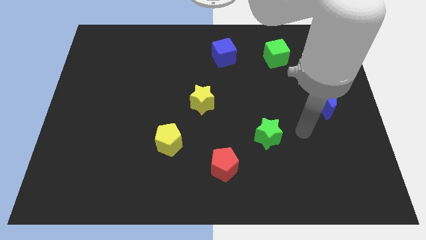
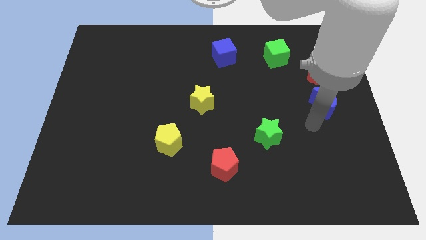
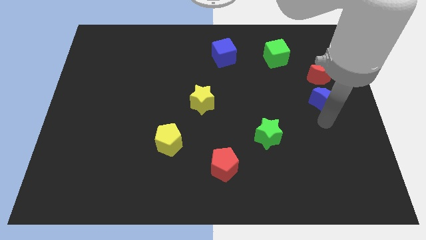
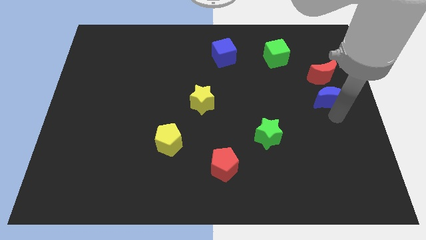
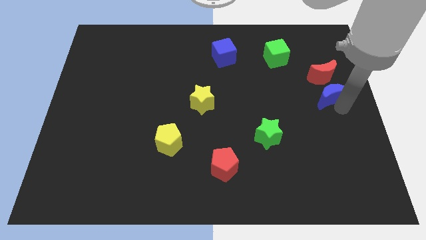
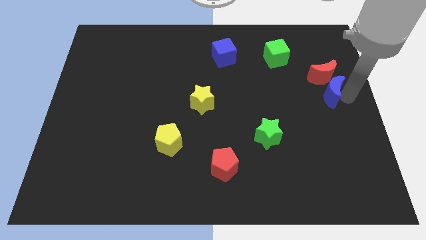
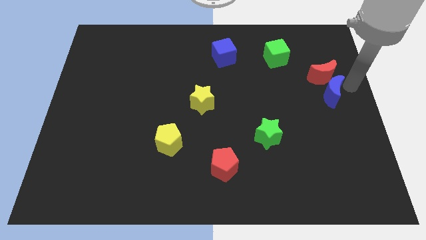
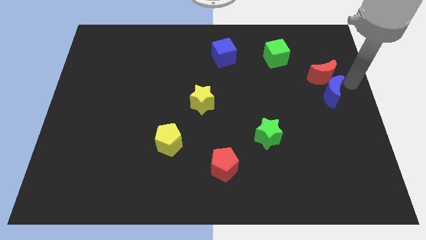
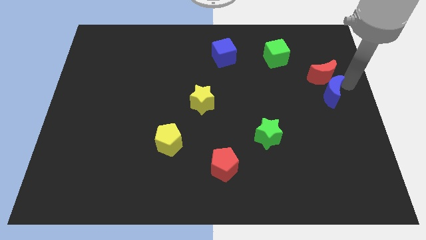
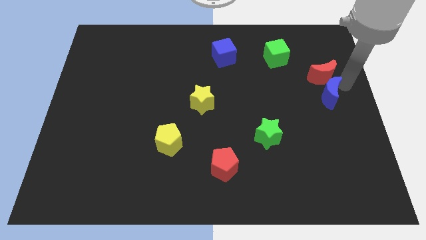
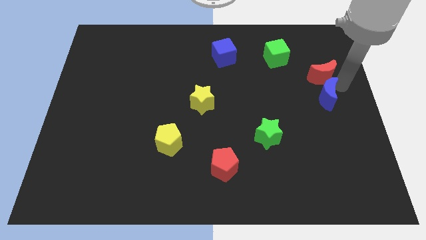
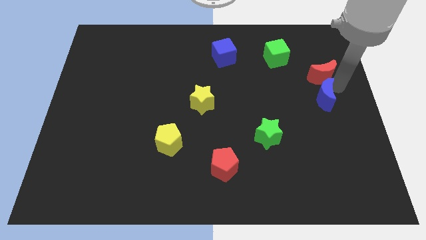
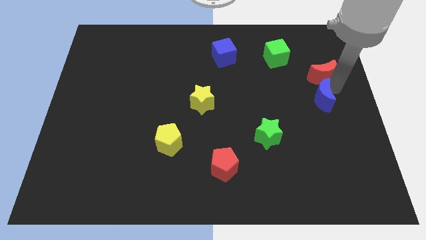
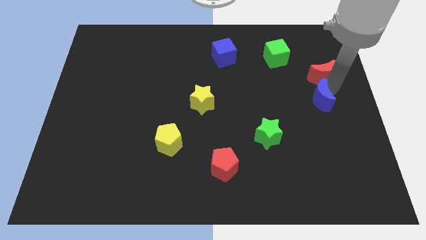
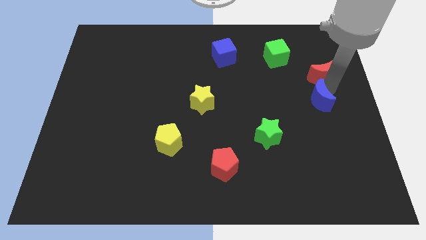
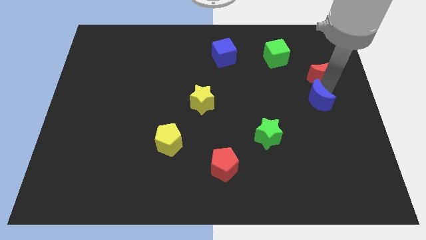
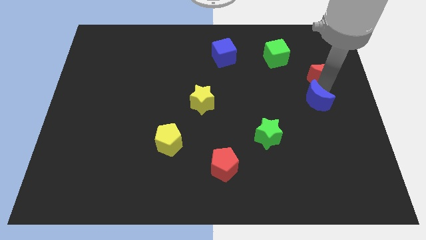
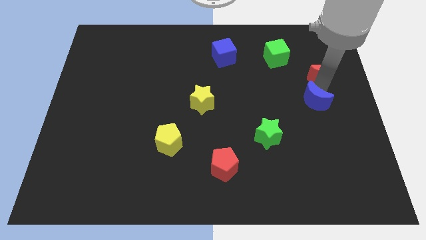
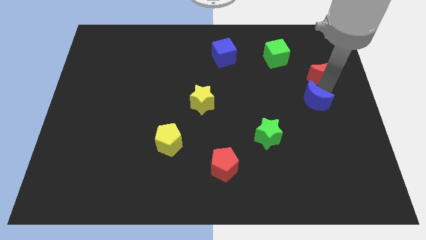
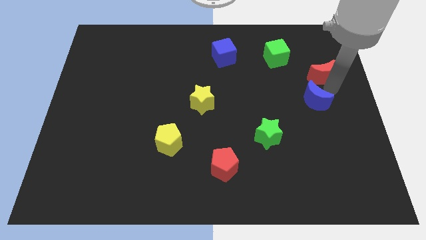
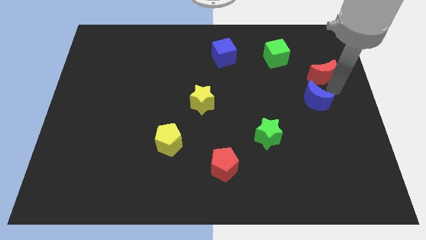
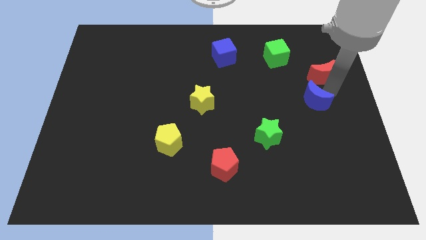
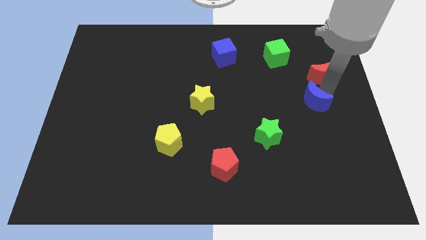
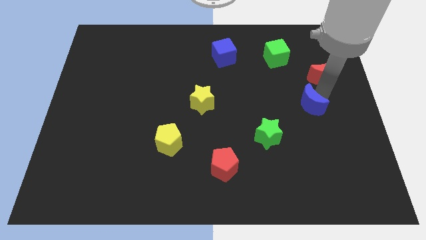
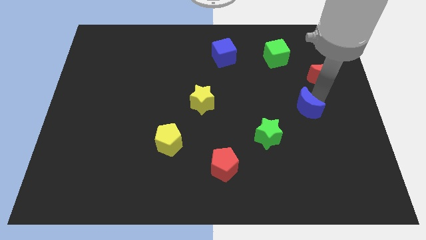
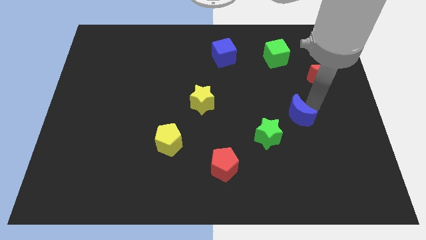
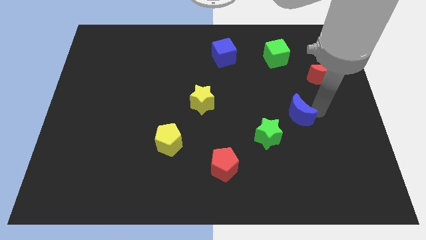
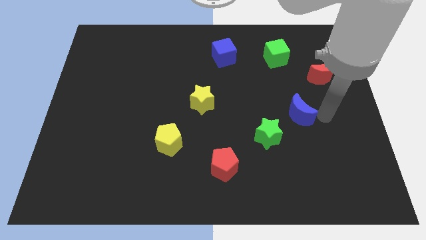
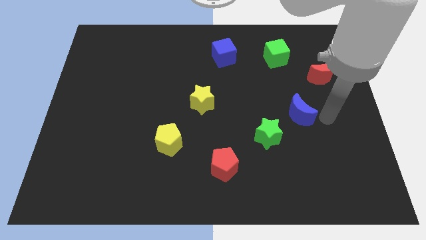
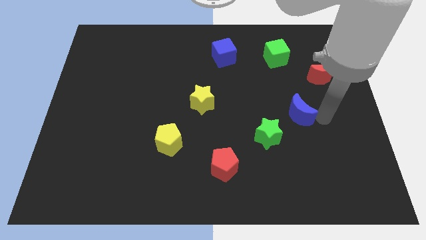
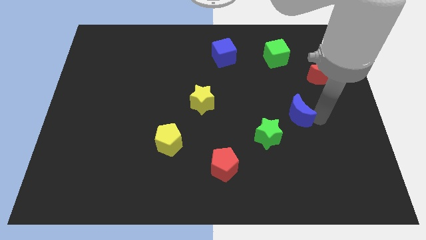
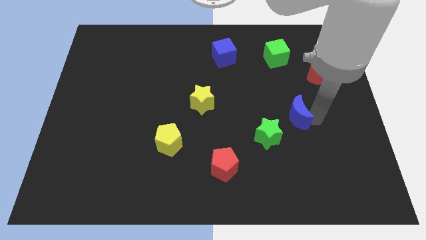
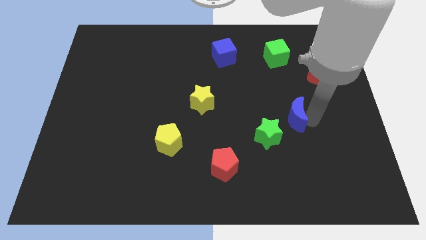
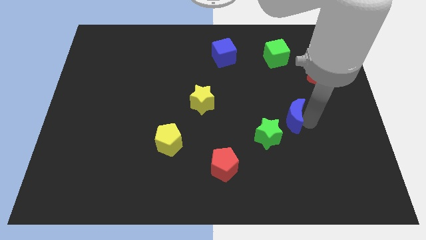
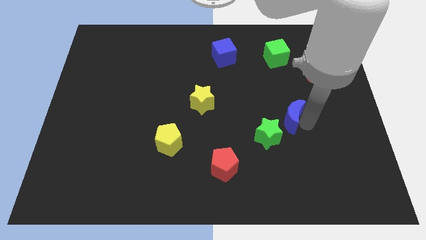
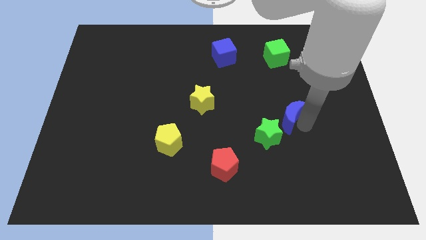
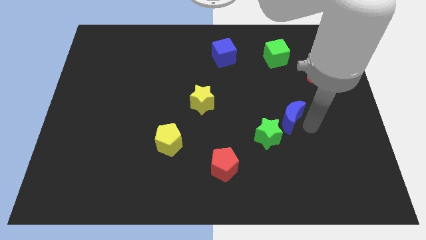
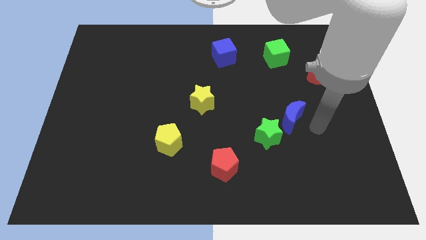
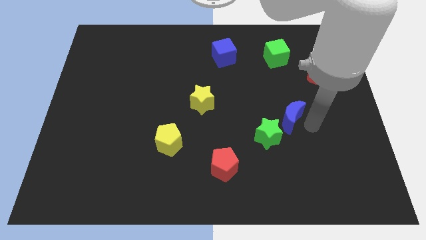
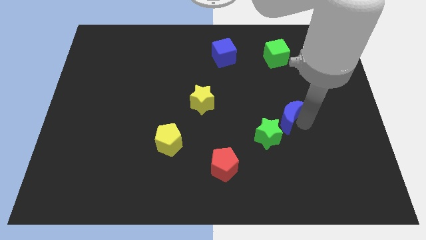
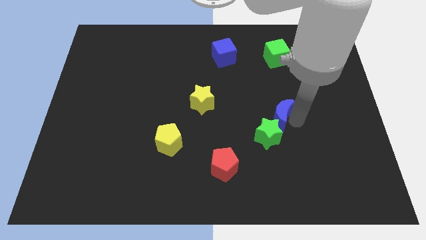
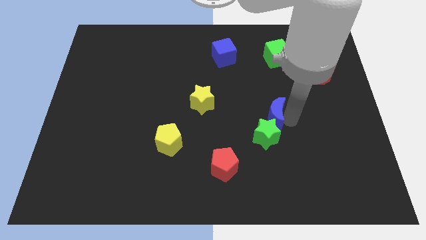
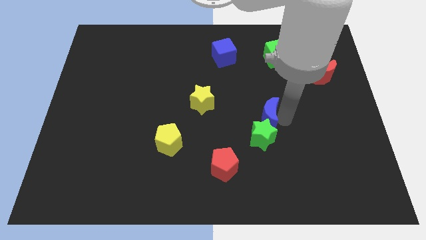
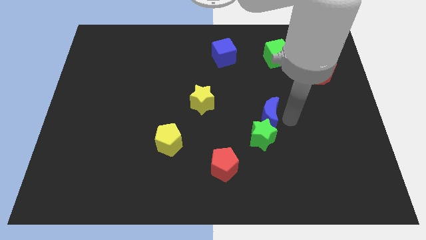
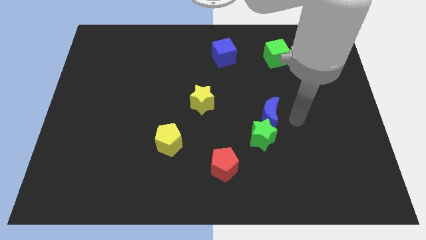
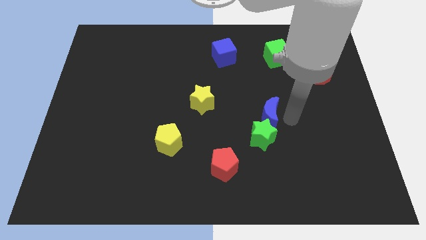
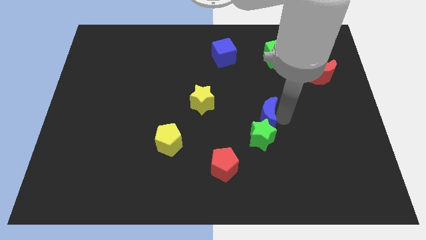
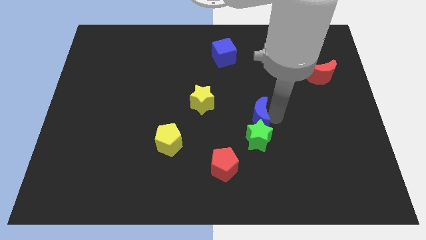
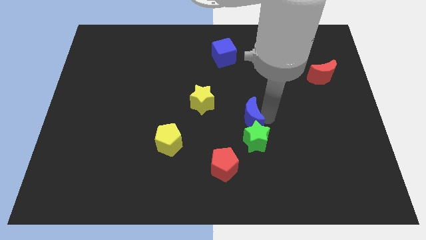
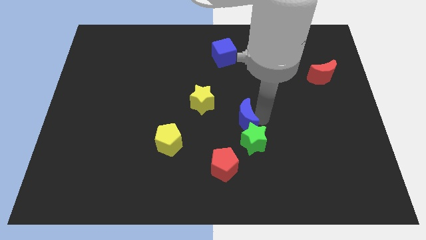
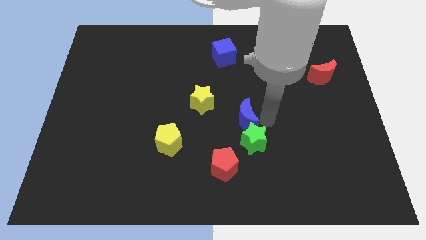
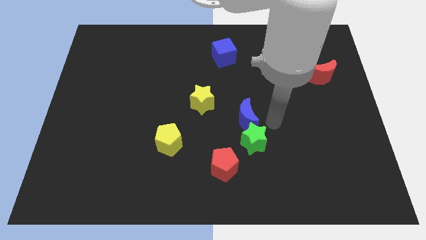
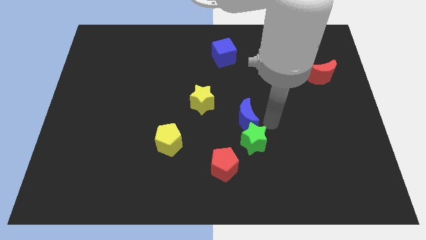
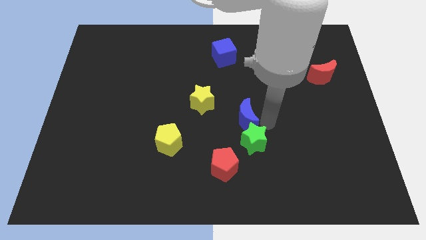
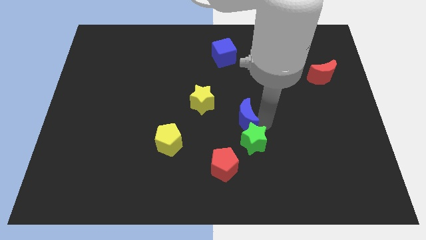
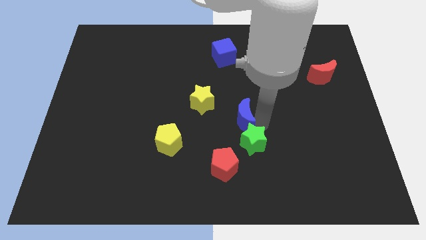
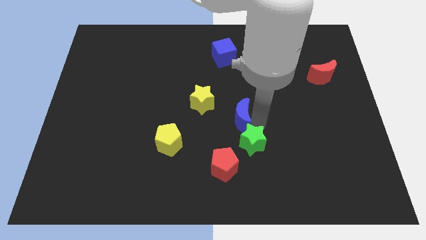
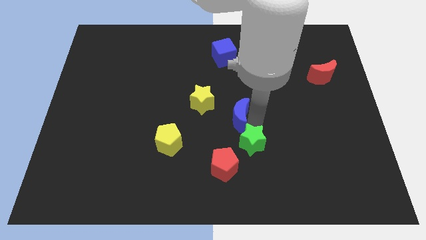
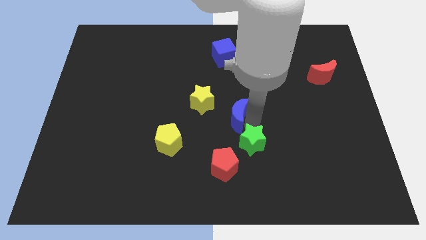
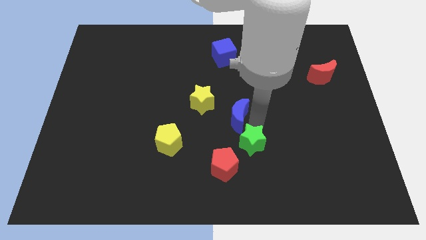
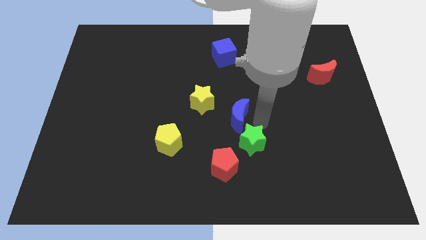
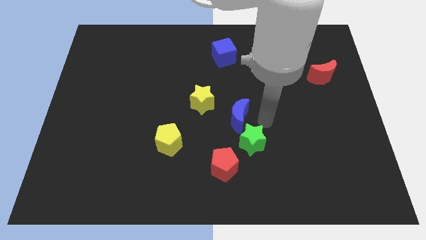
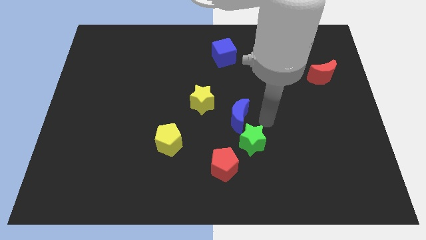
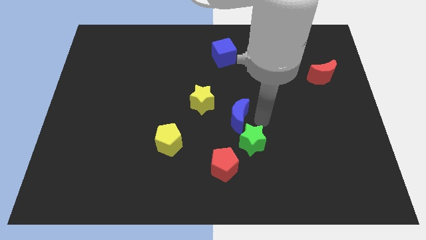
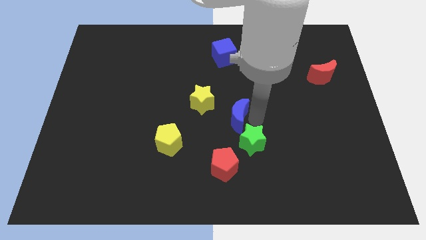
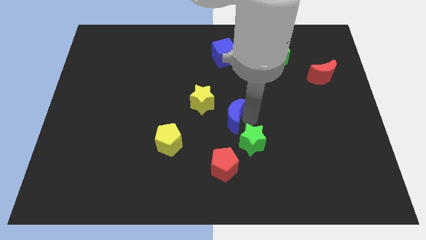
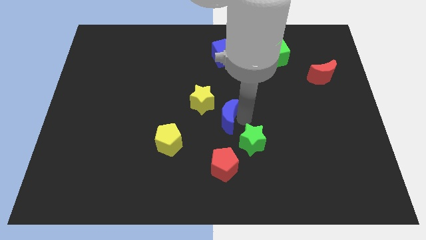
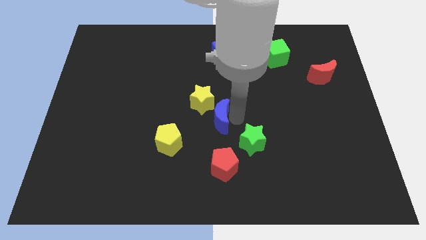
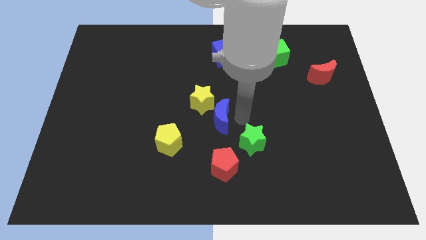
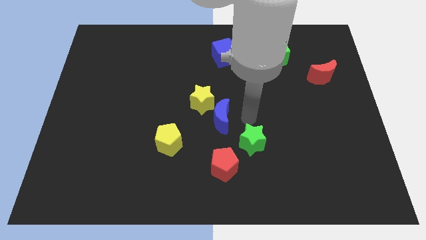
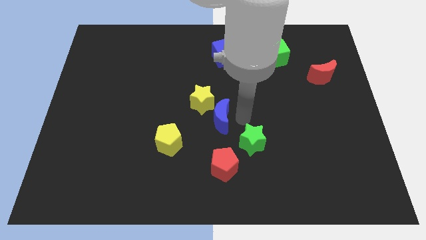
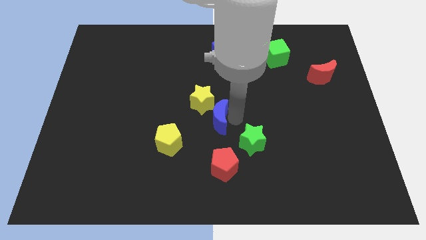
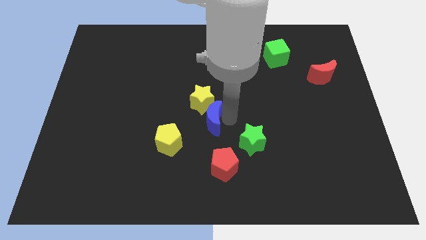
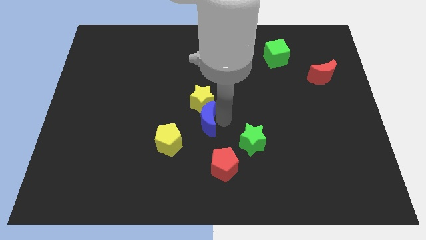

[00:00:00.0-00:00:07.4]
move the blue moon to the bottom left side of the yellow star

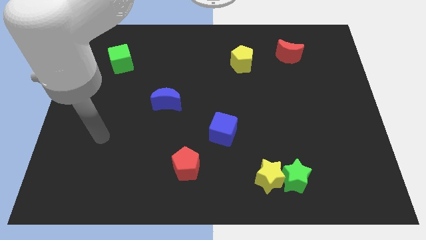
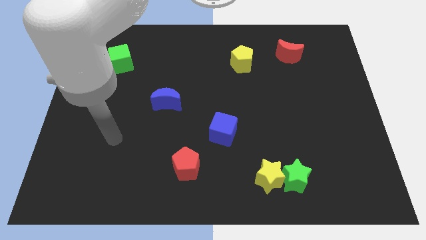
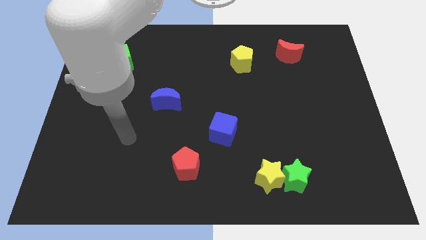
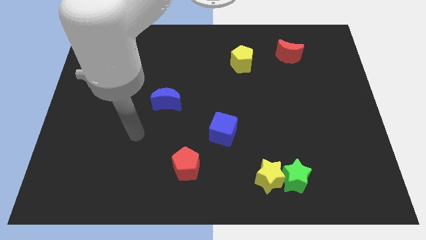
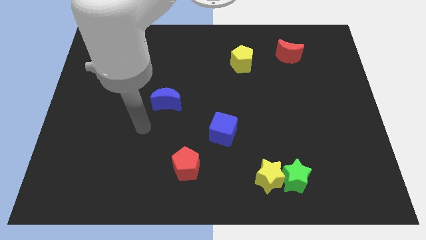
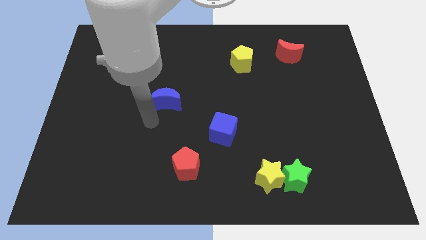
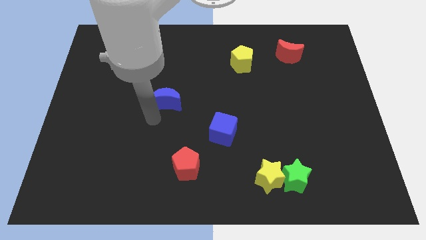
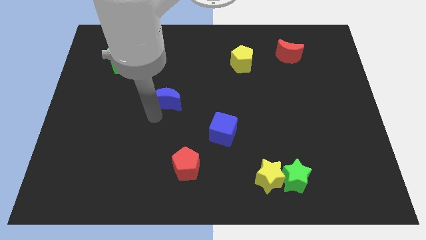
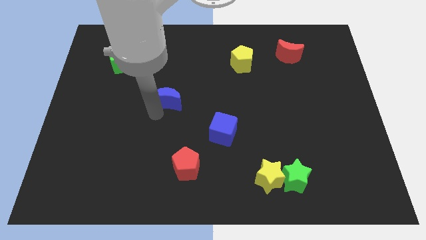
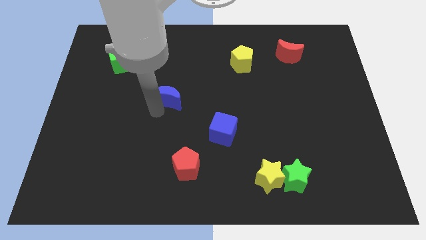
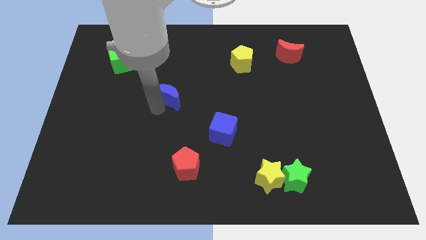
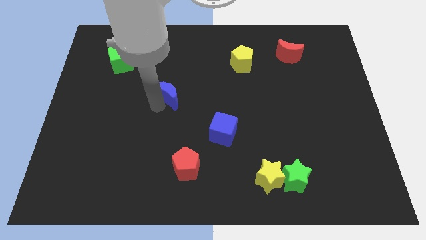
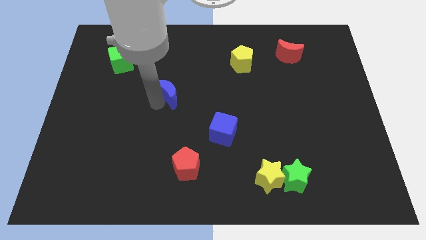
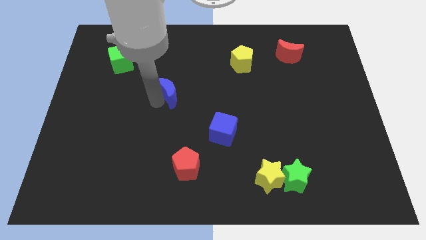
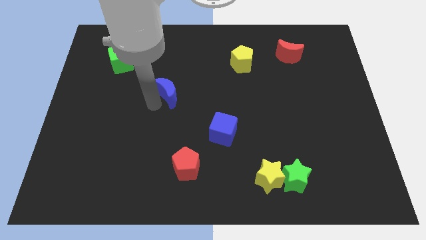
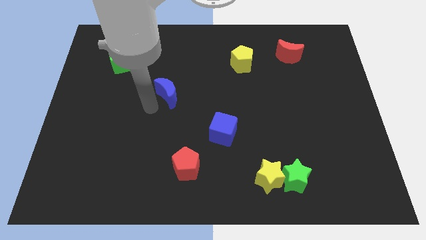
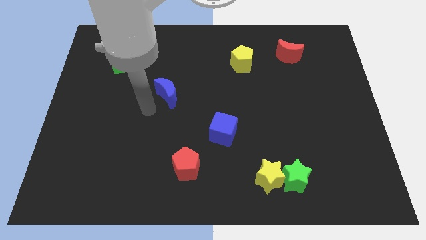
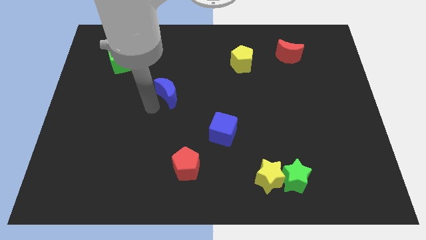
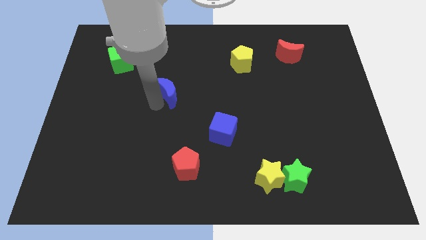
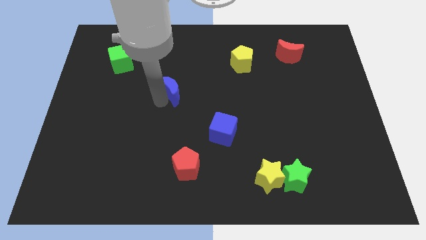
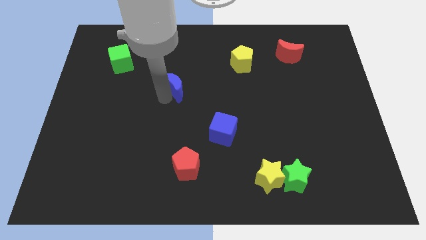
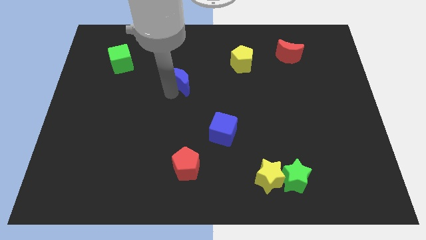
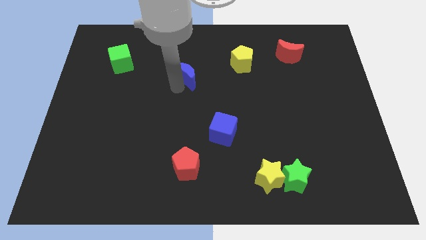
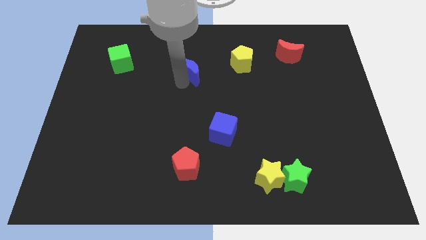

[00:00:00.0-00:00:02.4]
put the blue moon to the left of the yellow pentagon
